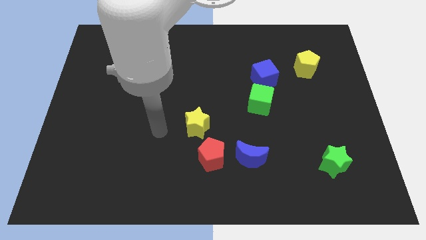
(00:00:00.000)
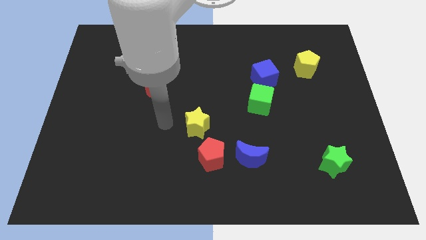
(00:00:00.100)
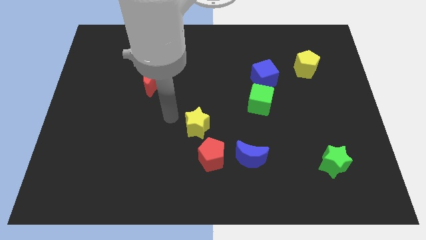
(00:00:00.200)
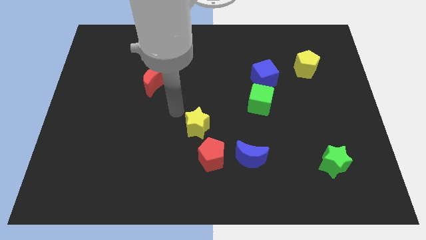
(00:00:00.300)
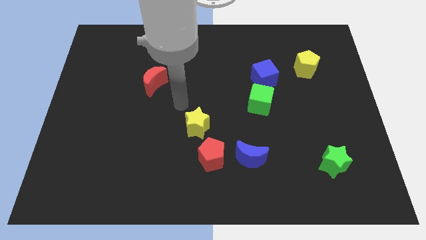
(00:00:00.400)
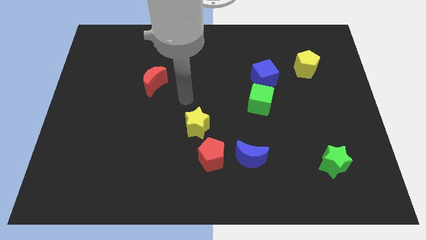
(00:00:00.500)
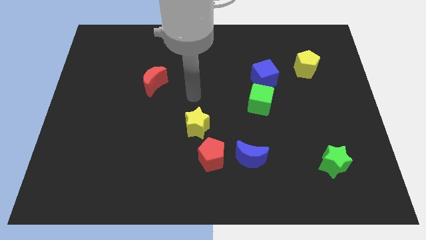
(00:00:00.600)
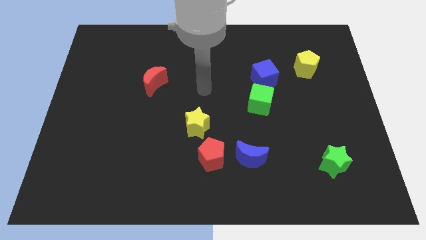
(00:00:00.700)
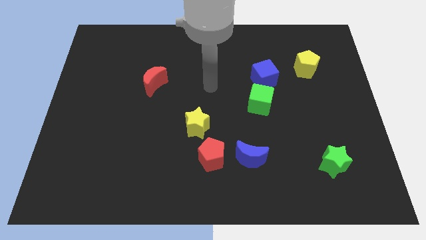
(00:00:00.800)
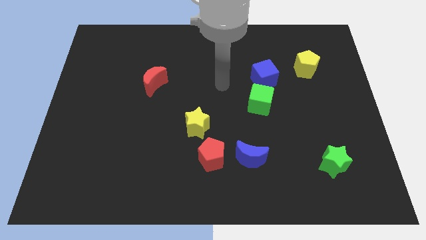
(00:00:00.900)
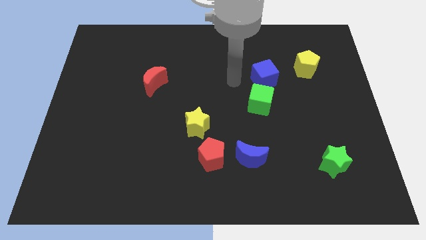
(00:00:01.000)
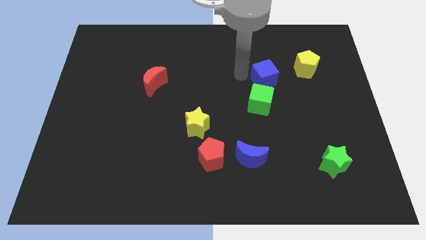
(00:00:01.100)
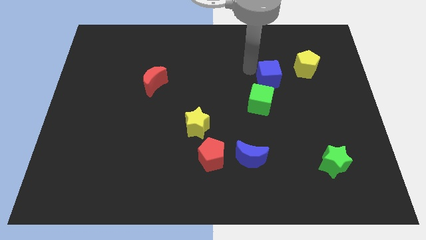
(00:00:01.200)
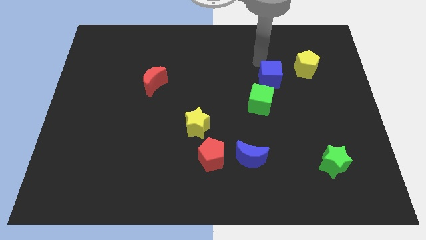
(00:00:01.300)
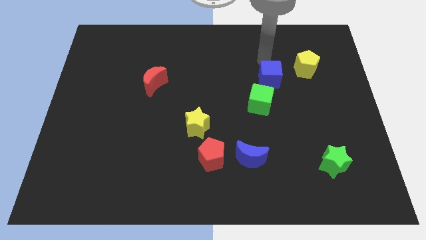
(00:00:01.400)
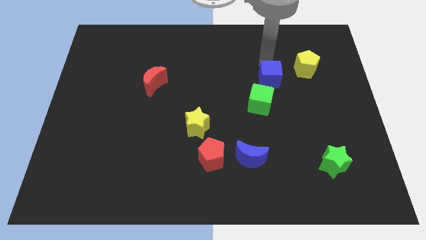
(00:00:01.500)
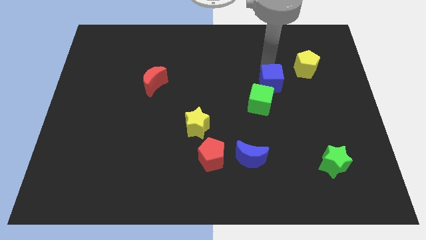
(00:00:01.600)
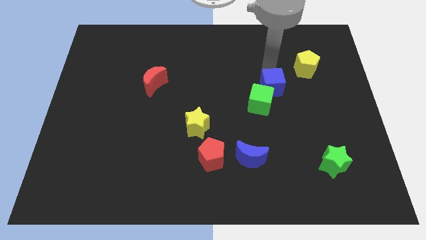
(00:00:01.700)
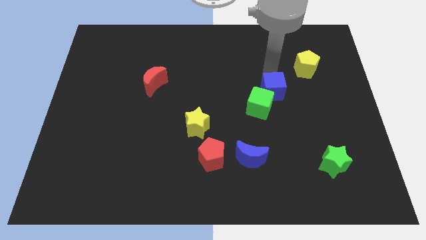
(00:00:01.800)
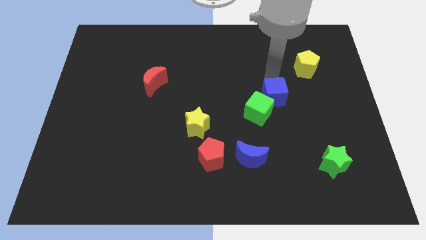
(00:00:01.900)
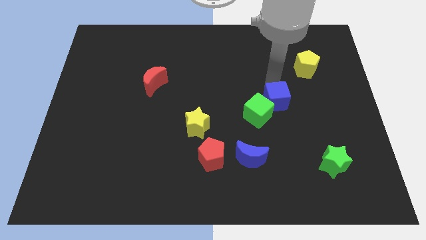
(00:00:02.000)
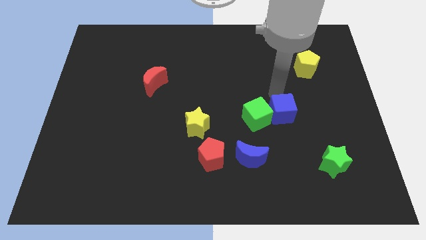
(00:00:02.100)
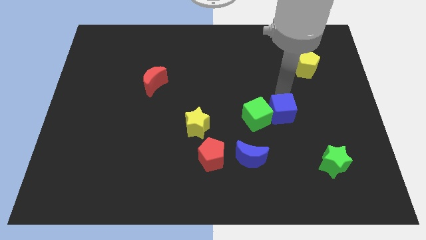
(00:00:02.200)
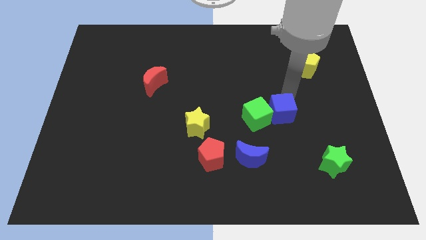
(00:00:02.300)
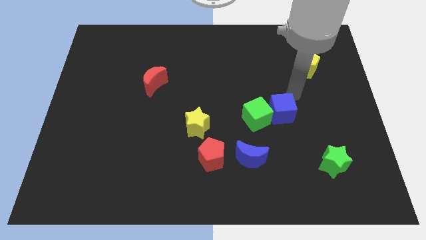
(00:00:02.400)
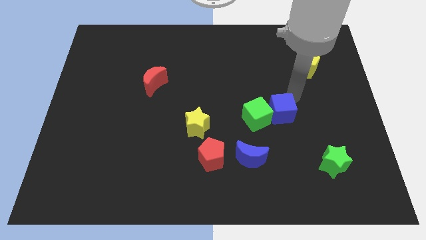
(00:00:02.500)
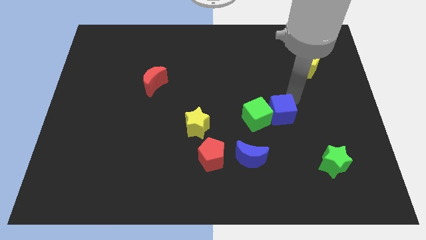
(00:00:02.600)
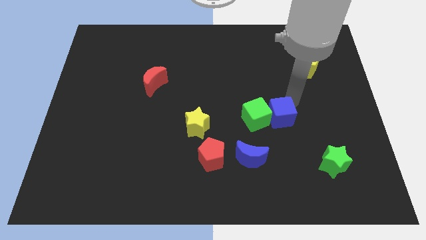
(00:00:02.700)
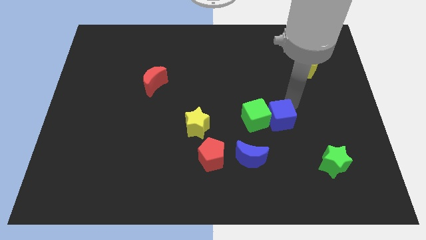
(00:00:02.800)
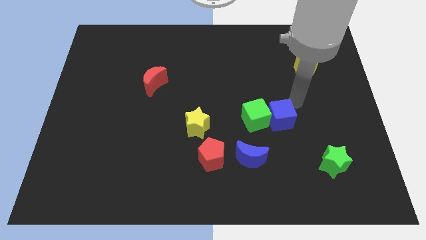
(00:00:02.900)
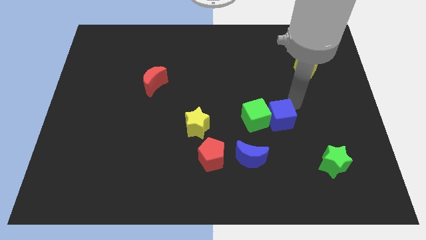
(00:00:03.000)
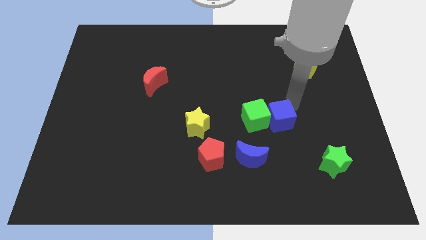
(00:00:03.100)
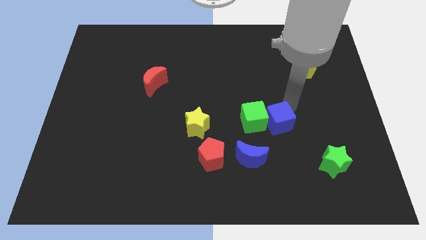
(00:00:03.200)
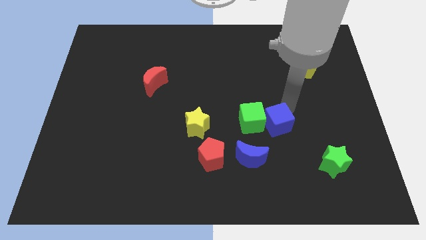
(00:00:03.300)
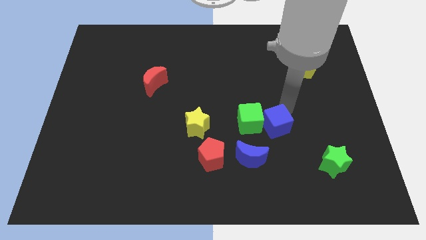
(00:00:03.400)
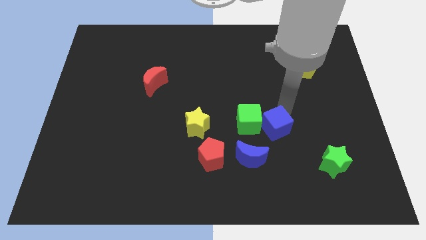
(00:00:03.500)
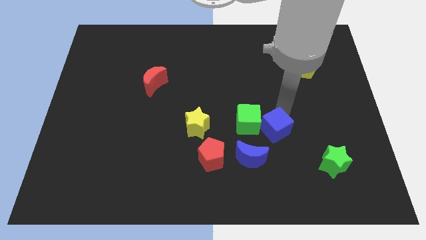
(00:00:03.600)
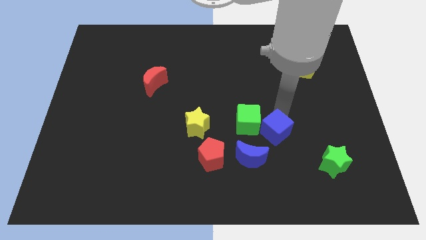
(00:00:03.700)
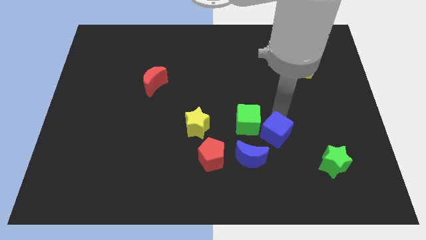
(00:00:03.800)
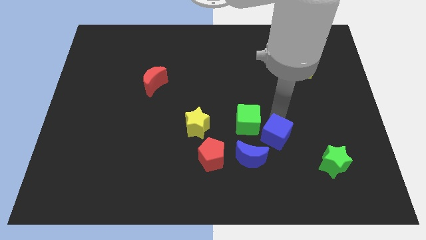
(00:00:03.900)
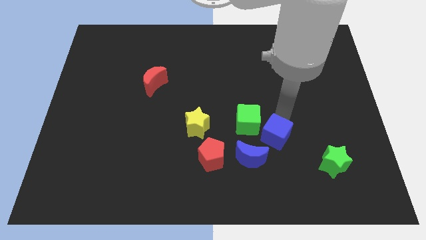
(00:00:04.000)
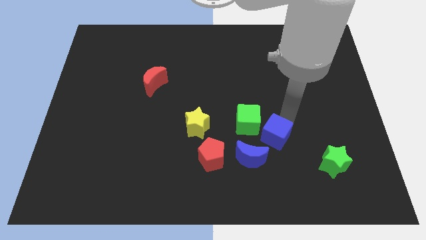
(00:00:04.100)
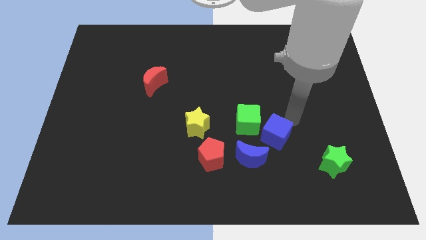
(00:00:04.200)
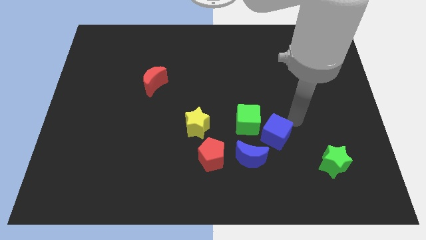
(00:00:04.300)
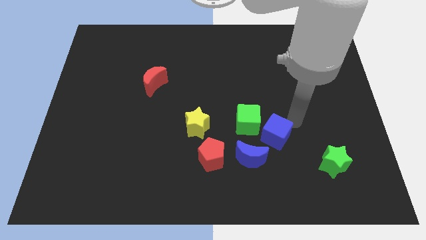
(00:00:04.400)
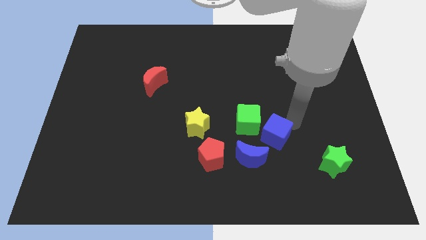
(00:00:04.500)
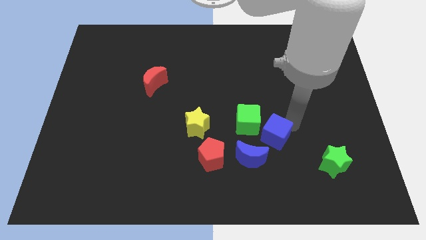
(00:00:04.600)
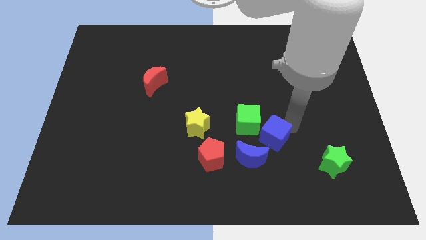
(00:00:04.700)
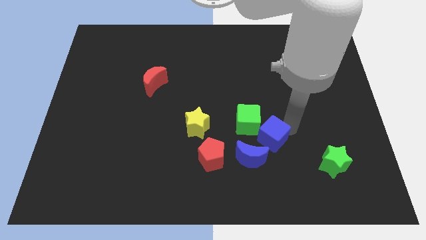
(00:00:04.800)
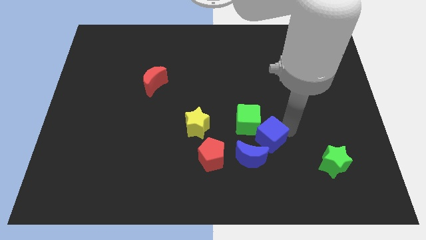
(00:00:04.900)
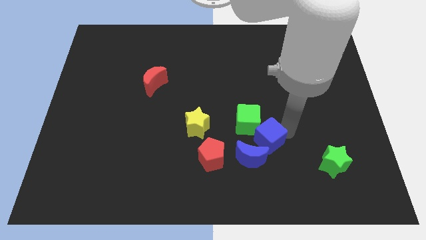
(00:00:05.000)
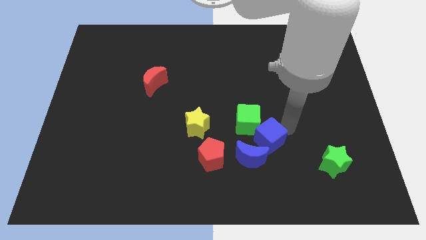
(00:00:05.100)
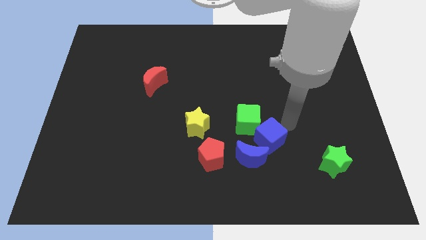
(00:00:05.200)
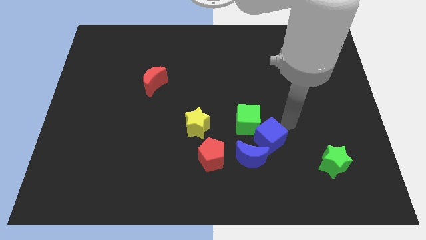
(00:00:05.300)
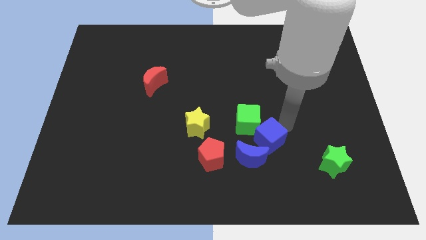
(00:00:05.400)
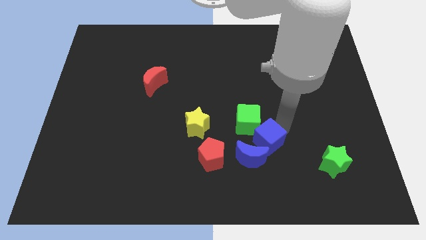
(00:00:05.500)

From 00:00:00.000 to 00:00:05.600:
put the blue cube close to the blue moon

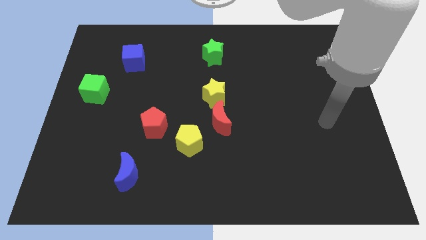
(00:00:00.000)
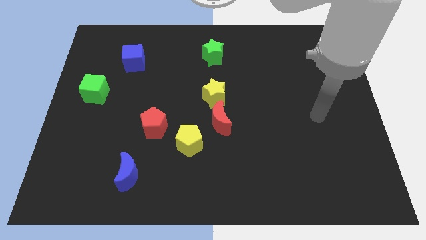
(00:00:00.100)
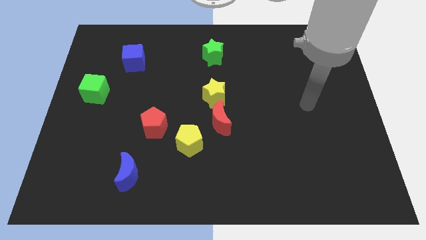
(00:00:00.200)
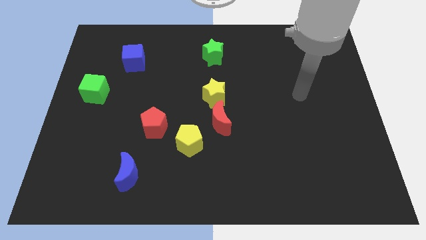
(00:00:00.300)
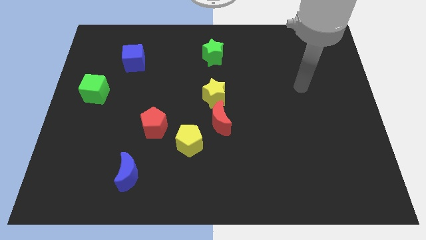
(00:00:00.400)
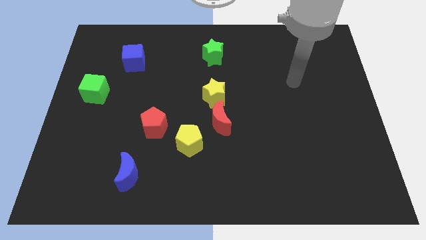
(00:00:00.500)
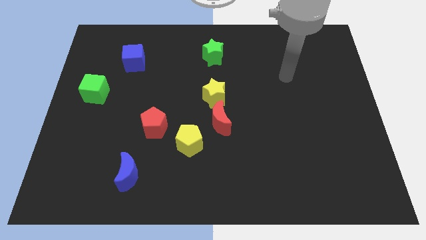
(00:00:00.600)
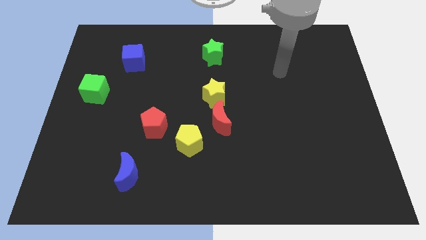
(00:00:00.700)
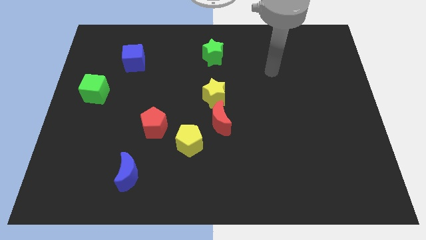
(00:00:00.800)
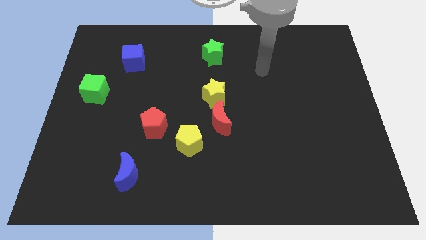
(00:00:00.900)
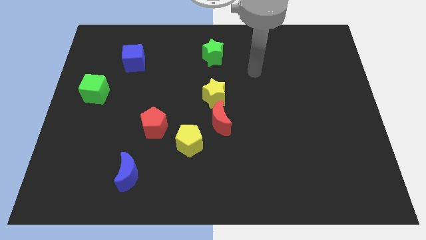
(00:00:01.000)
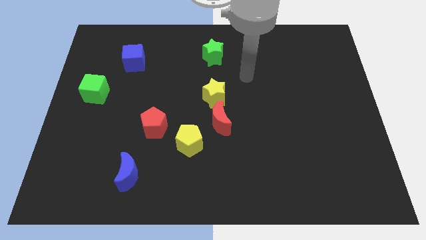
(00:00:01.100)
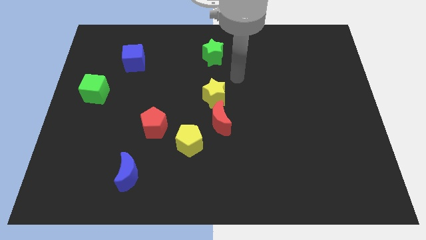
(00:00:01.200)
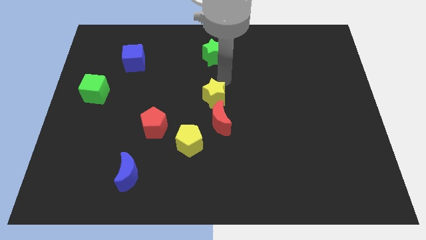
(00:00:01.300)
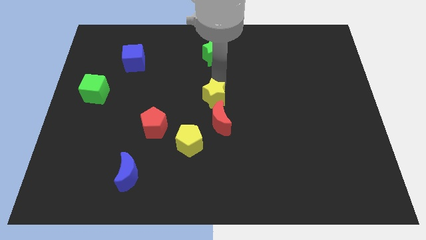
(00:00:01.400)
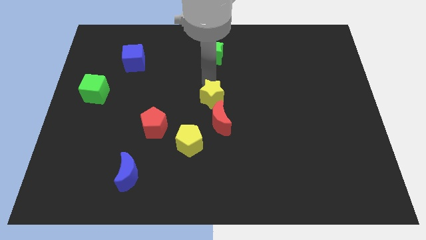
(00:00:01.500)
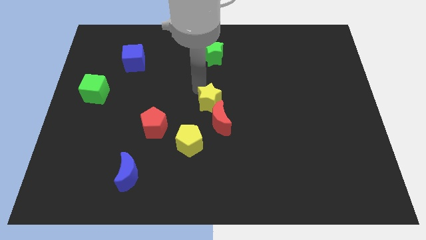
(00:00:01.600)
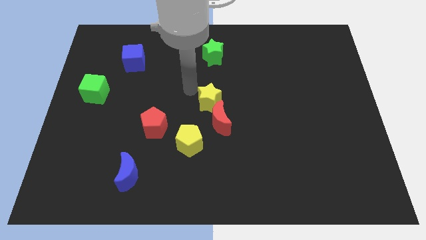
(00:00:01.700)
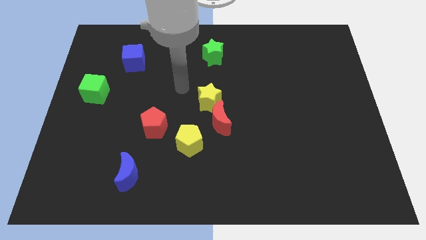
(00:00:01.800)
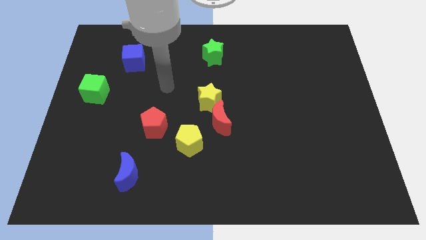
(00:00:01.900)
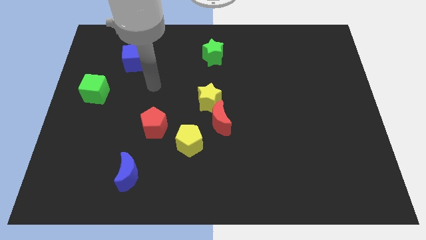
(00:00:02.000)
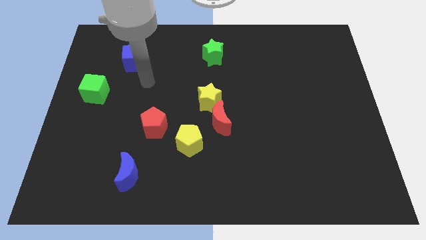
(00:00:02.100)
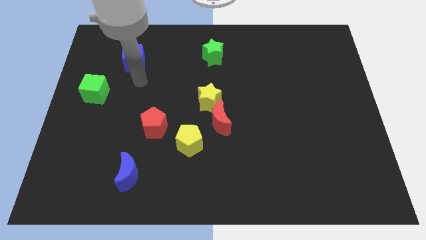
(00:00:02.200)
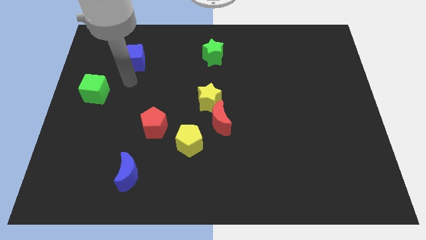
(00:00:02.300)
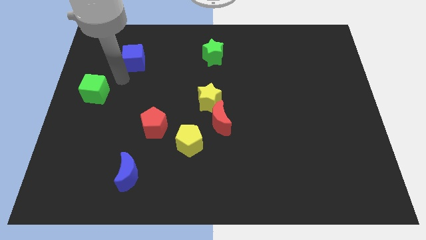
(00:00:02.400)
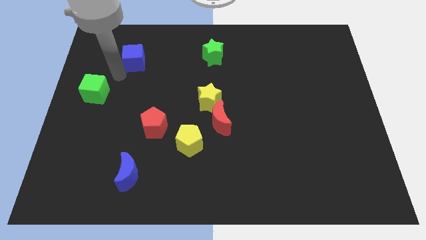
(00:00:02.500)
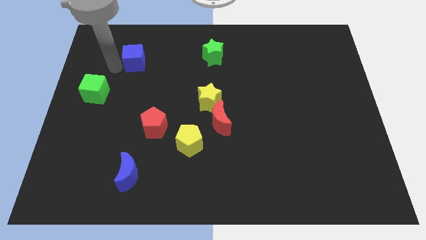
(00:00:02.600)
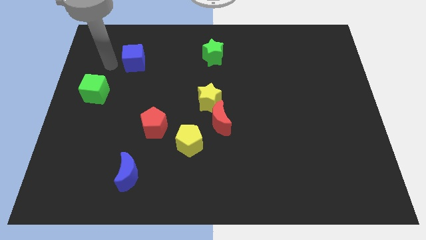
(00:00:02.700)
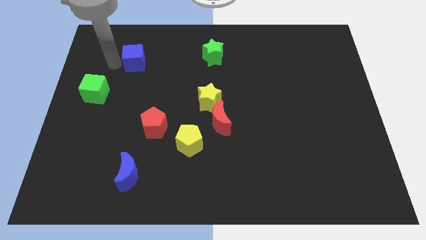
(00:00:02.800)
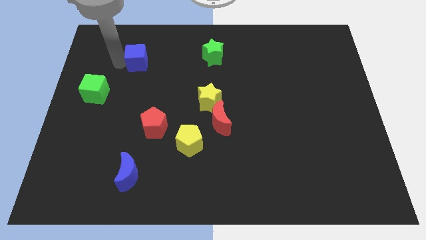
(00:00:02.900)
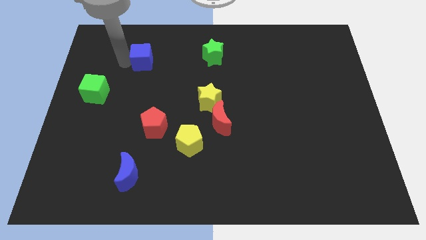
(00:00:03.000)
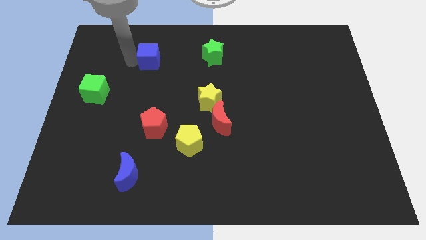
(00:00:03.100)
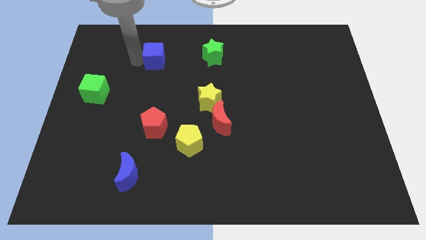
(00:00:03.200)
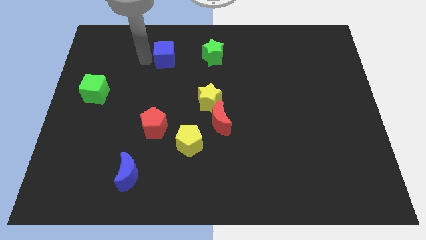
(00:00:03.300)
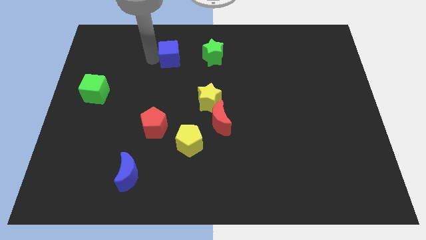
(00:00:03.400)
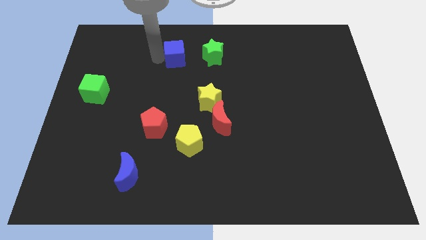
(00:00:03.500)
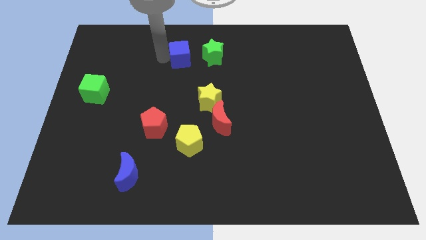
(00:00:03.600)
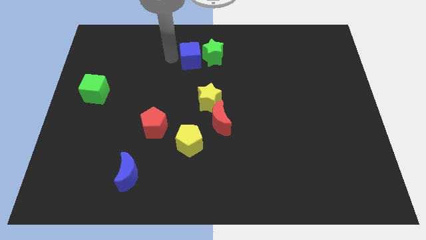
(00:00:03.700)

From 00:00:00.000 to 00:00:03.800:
push the blue cube next to the green star
